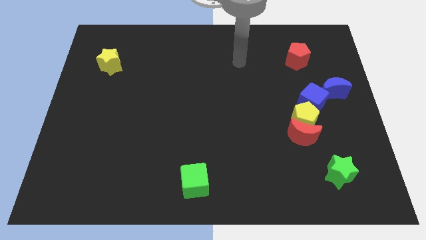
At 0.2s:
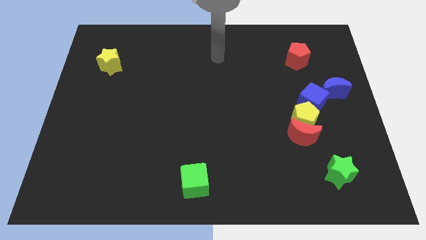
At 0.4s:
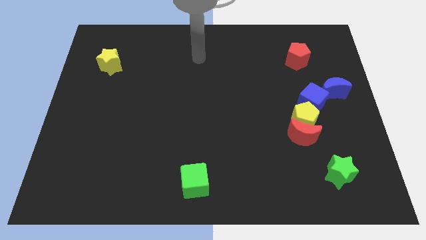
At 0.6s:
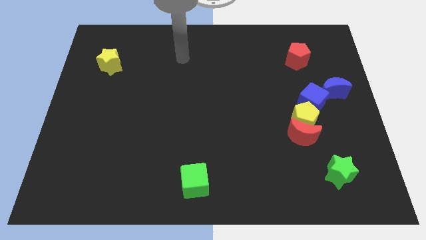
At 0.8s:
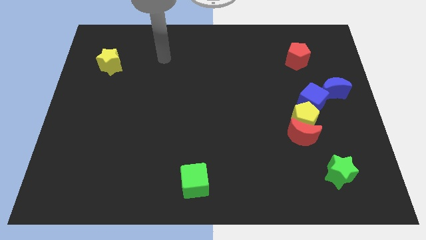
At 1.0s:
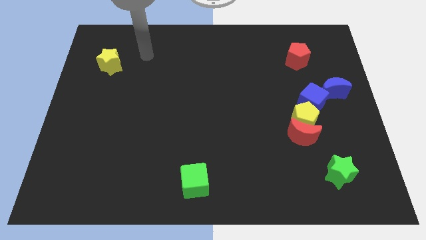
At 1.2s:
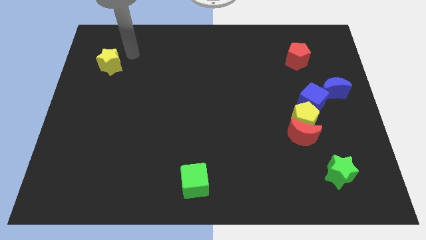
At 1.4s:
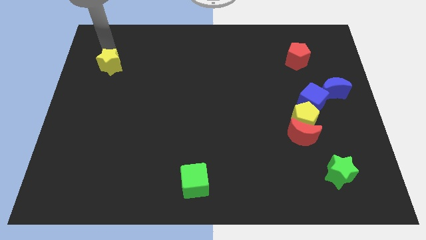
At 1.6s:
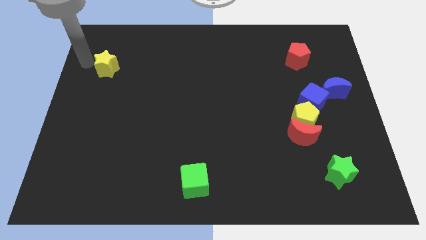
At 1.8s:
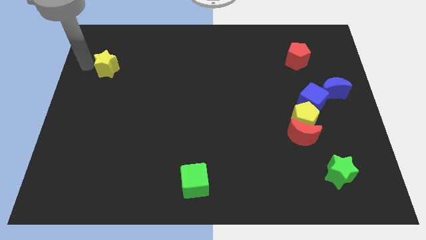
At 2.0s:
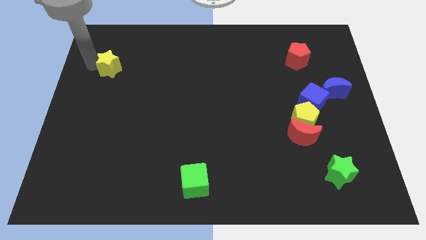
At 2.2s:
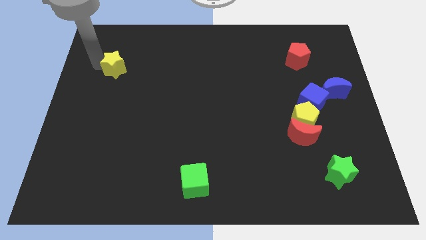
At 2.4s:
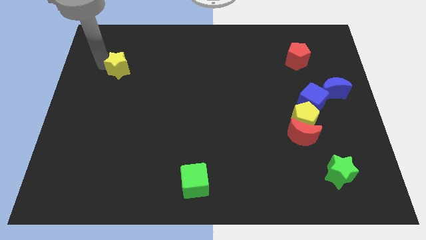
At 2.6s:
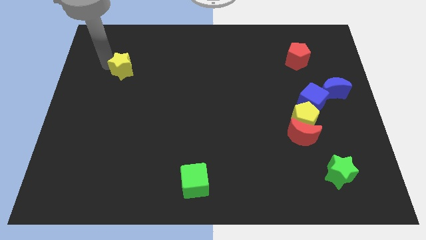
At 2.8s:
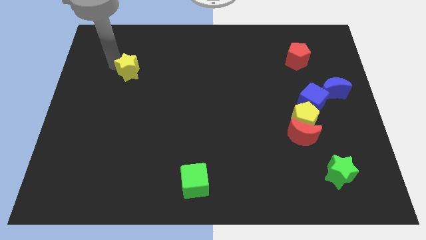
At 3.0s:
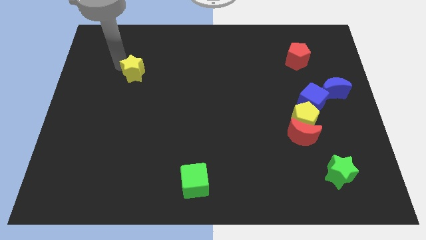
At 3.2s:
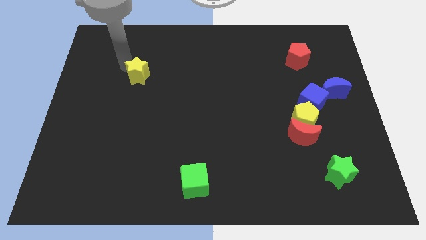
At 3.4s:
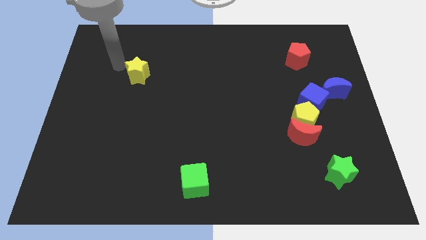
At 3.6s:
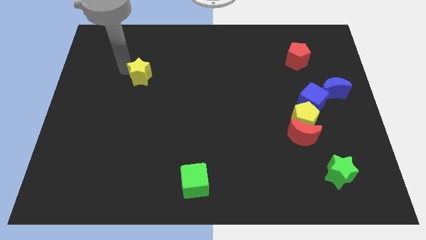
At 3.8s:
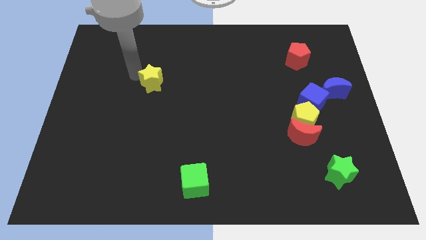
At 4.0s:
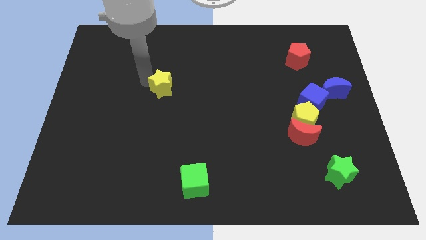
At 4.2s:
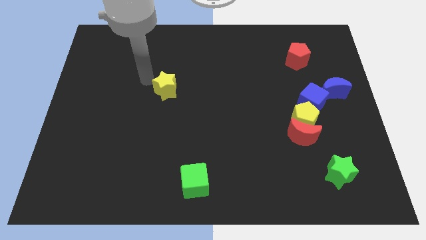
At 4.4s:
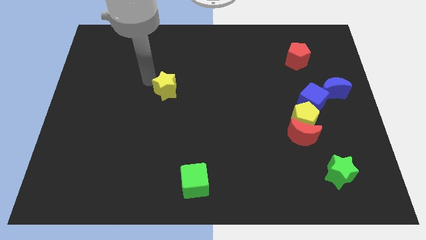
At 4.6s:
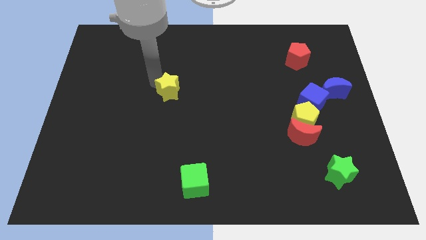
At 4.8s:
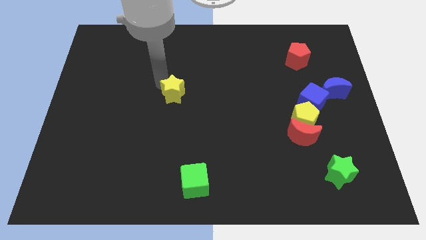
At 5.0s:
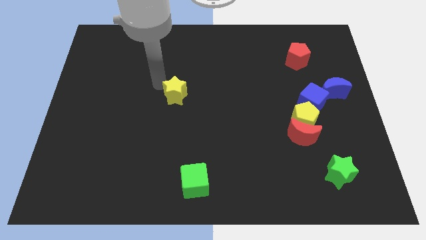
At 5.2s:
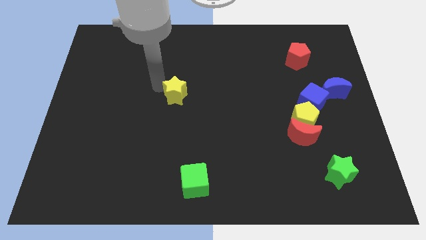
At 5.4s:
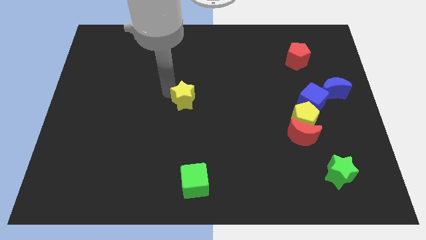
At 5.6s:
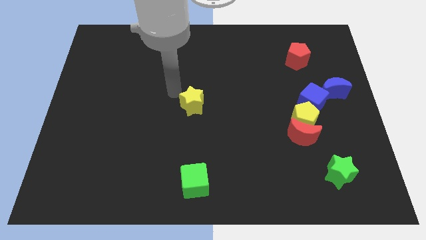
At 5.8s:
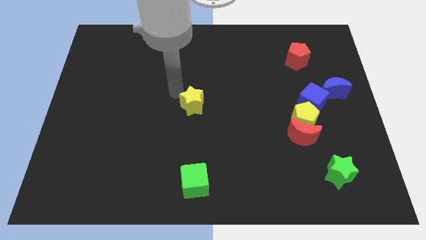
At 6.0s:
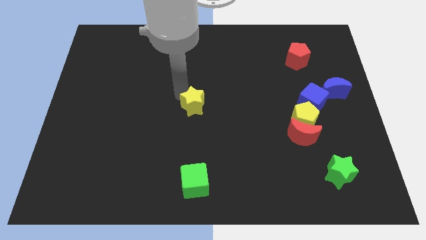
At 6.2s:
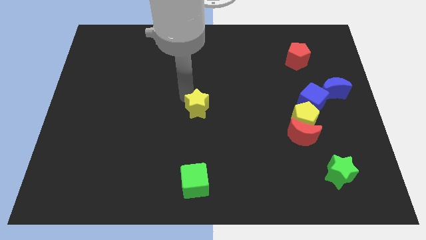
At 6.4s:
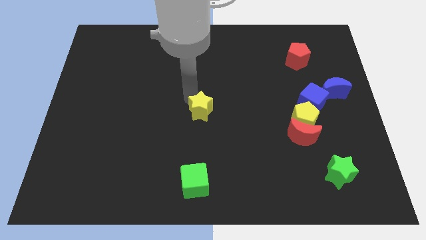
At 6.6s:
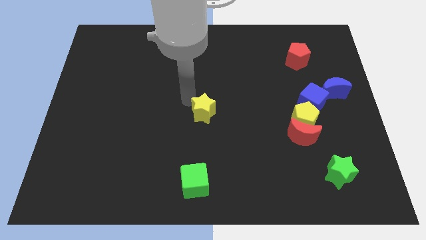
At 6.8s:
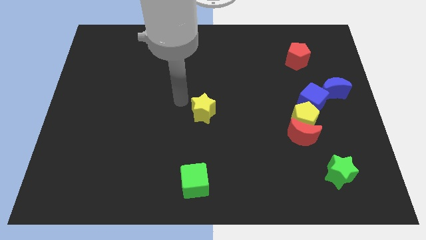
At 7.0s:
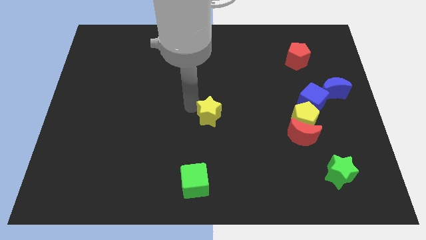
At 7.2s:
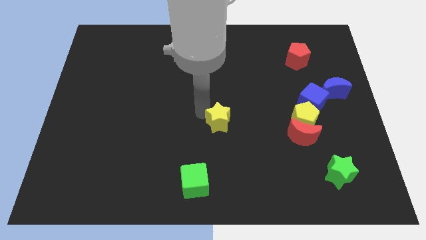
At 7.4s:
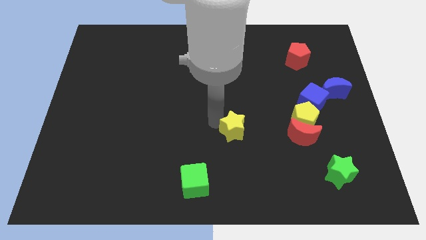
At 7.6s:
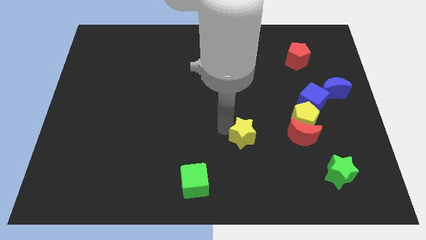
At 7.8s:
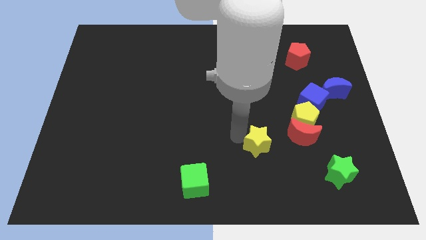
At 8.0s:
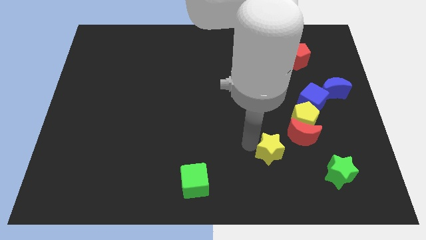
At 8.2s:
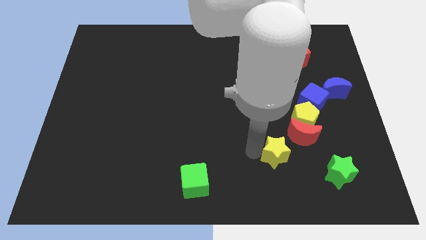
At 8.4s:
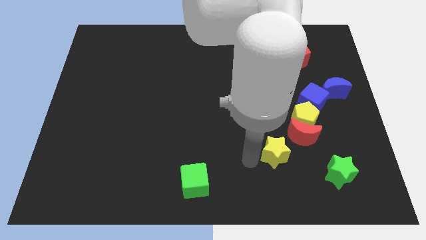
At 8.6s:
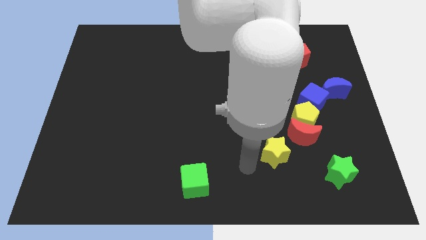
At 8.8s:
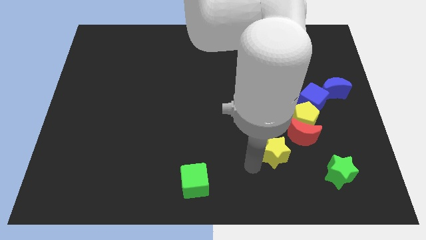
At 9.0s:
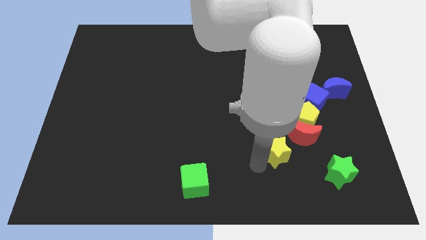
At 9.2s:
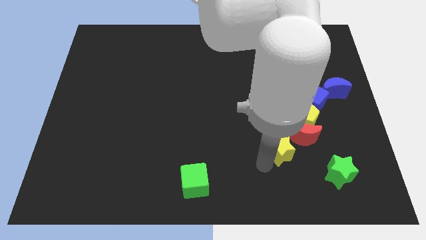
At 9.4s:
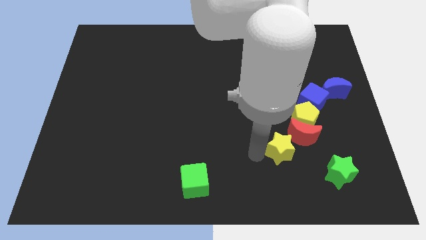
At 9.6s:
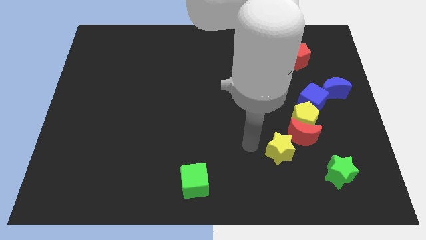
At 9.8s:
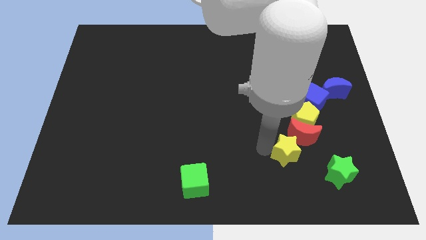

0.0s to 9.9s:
slide the yellow star to the bottom side of the yellow pentagon

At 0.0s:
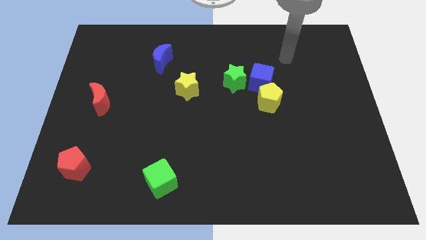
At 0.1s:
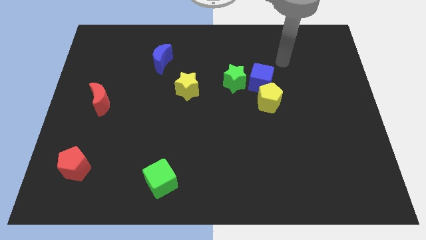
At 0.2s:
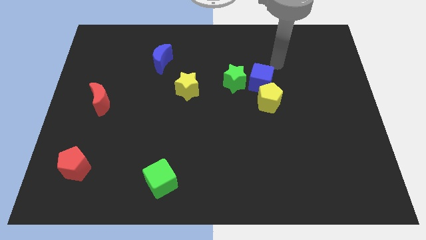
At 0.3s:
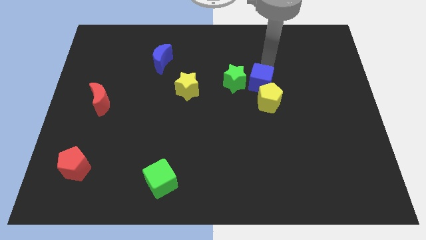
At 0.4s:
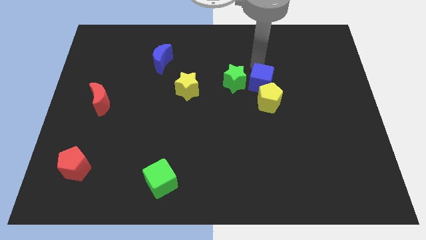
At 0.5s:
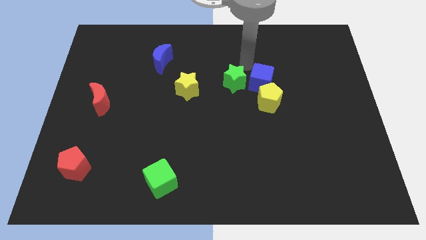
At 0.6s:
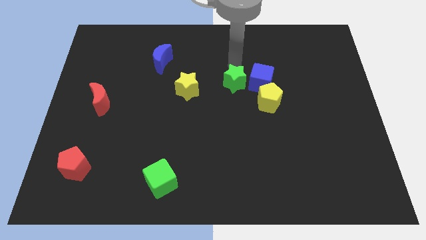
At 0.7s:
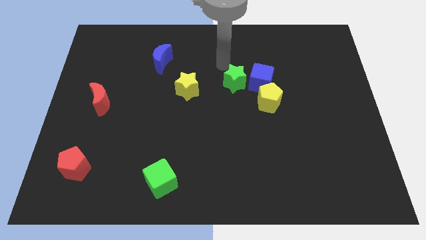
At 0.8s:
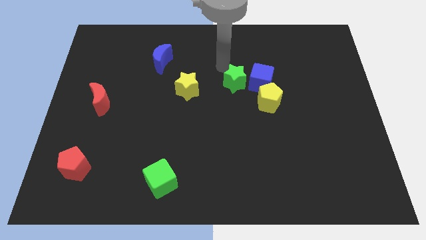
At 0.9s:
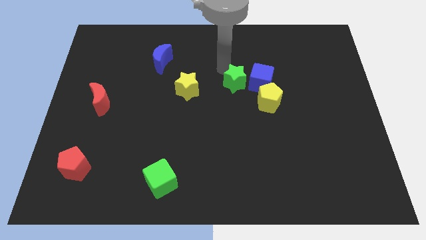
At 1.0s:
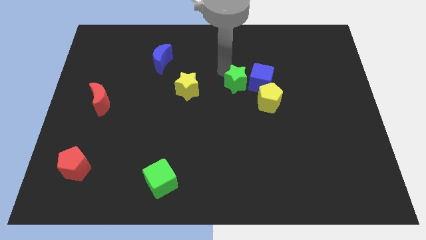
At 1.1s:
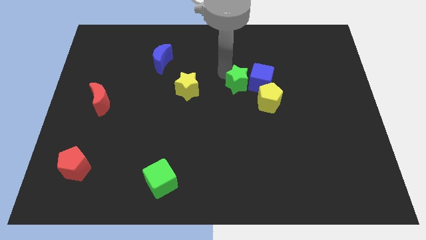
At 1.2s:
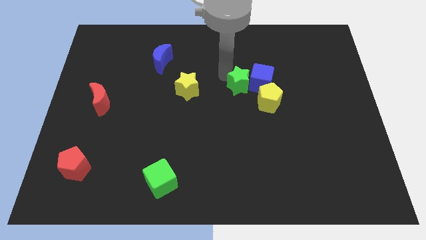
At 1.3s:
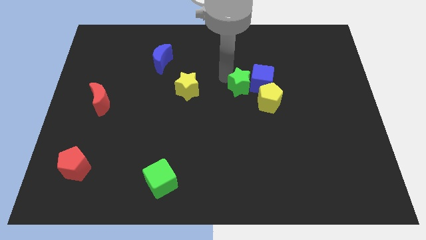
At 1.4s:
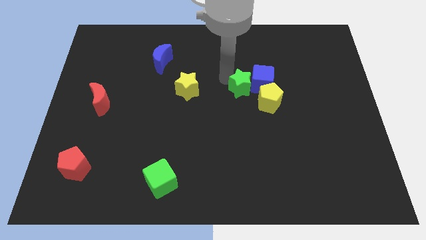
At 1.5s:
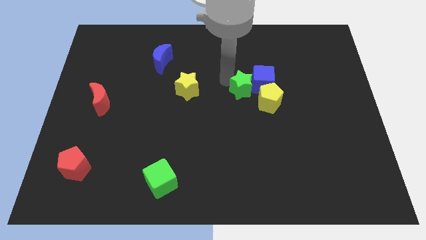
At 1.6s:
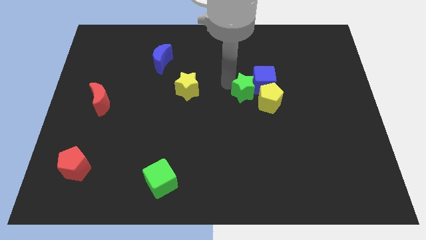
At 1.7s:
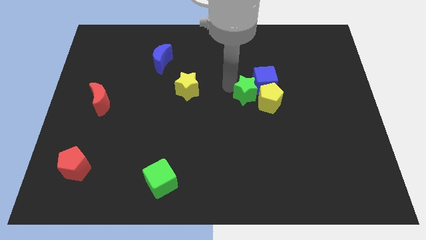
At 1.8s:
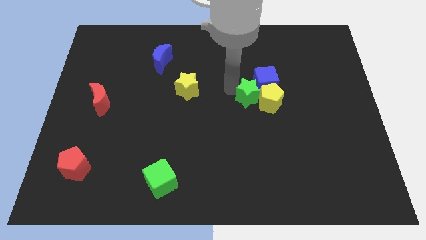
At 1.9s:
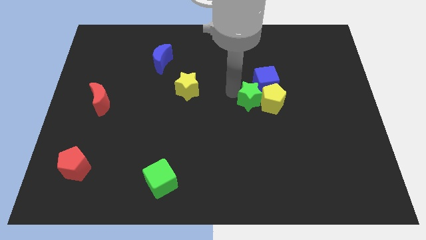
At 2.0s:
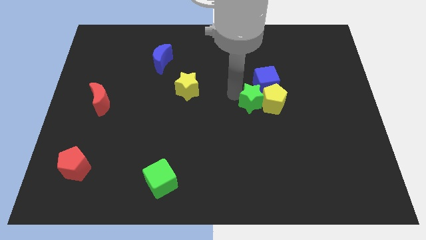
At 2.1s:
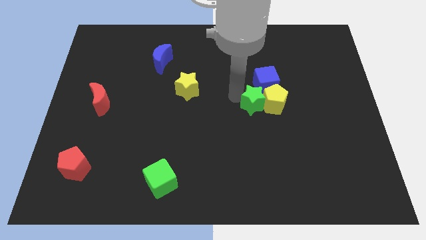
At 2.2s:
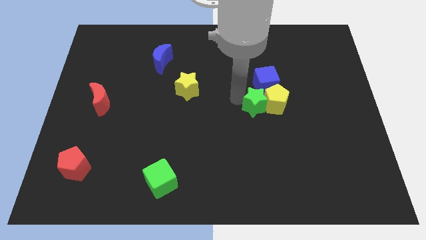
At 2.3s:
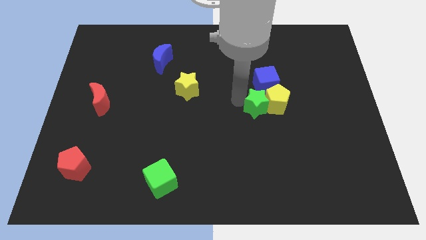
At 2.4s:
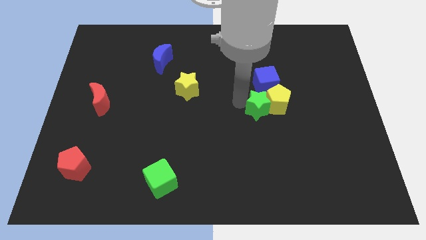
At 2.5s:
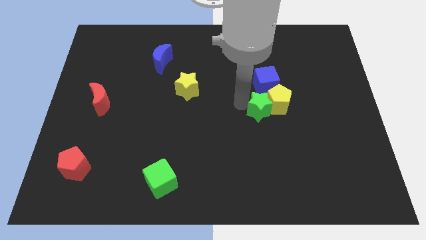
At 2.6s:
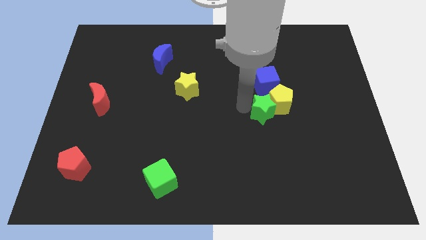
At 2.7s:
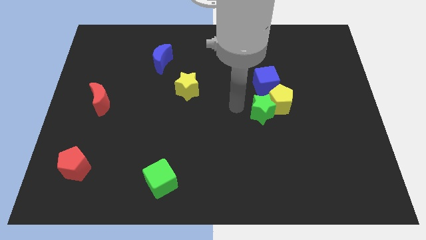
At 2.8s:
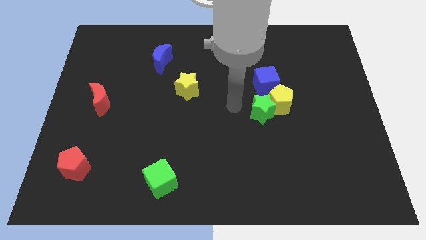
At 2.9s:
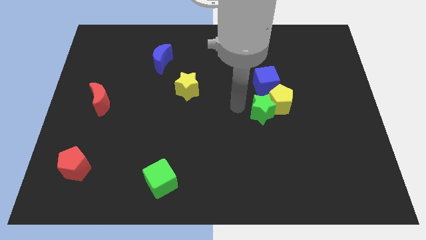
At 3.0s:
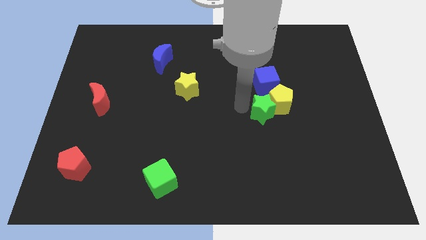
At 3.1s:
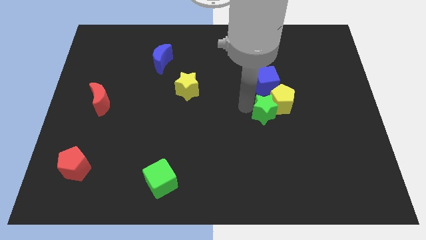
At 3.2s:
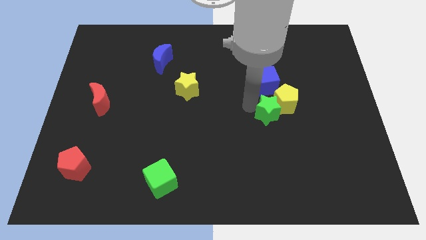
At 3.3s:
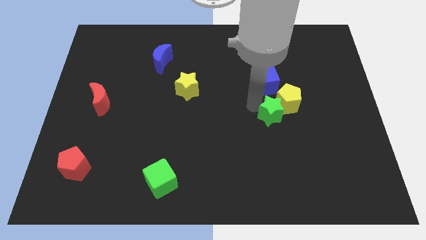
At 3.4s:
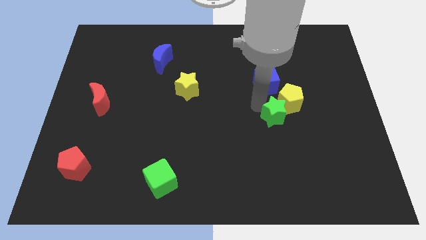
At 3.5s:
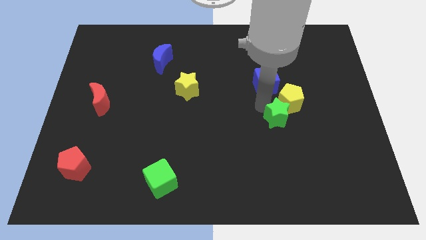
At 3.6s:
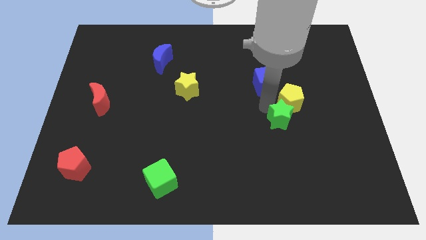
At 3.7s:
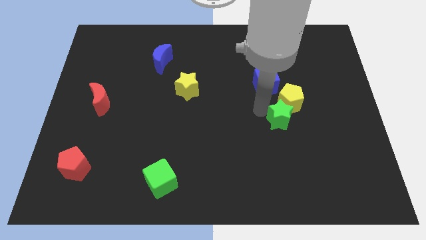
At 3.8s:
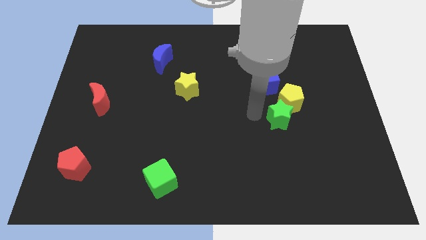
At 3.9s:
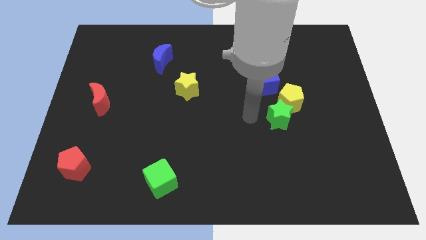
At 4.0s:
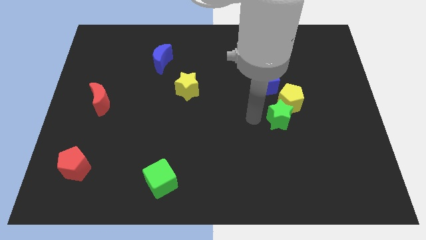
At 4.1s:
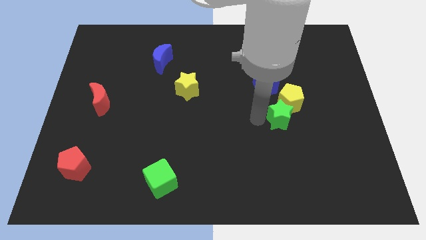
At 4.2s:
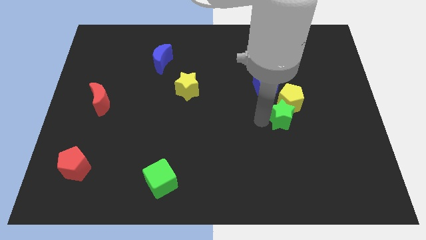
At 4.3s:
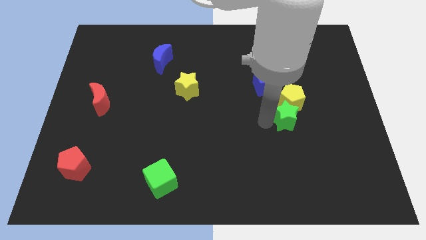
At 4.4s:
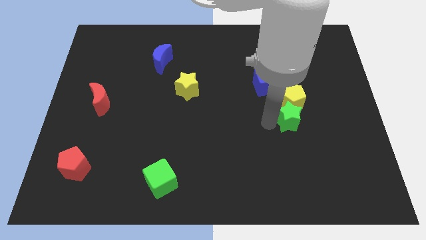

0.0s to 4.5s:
move the green star diagonally down and to the right of the yellow pentagon
